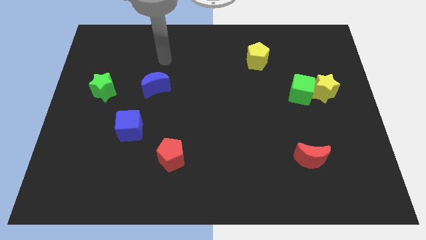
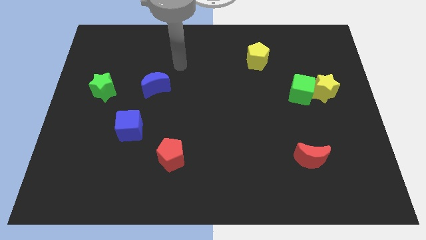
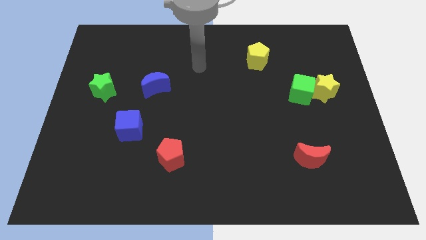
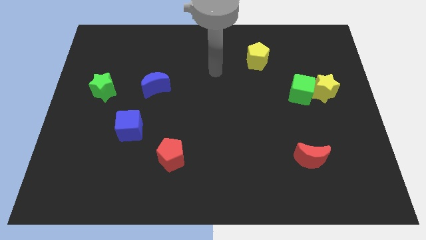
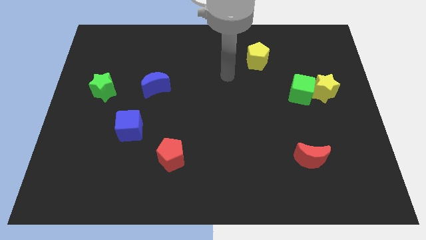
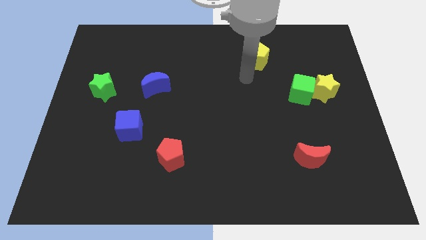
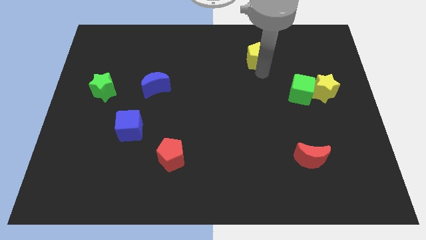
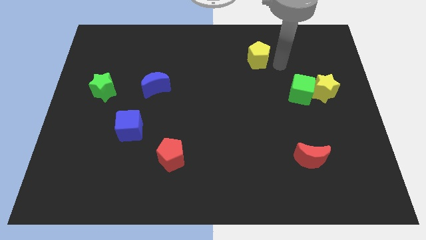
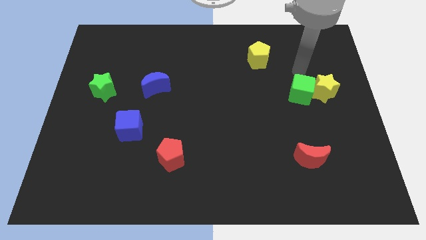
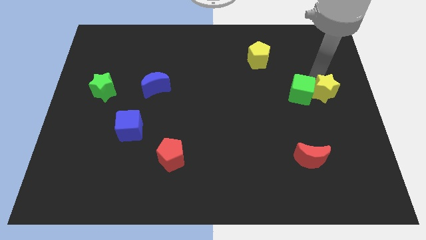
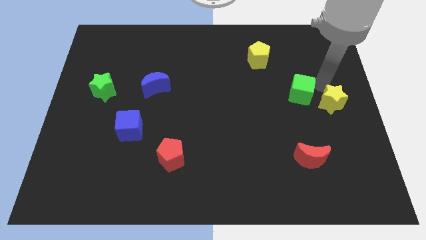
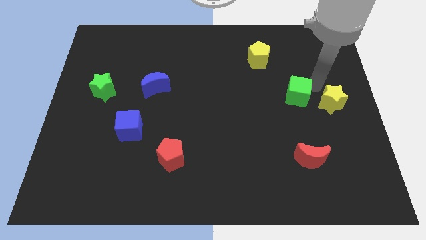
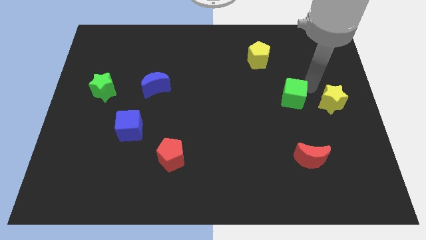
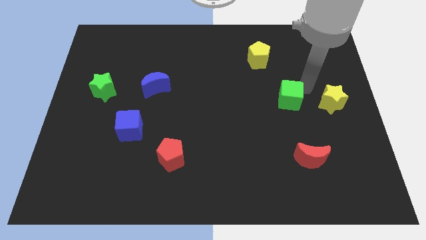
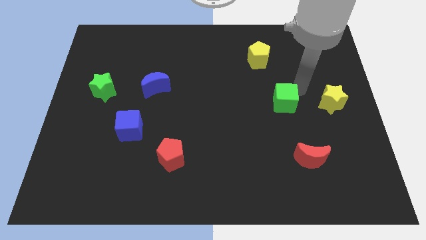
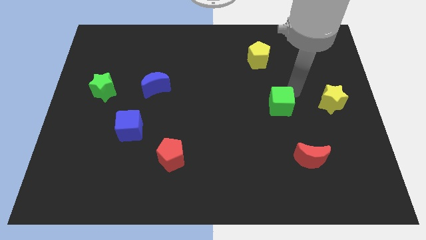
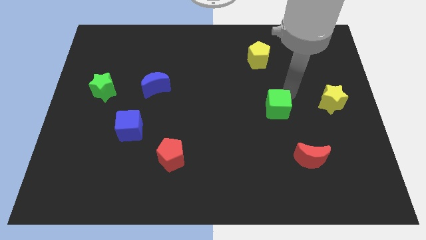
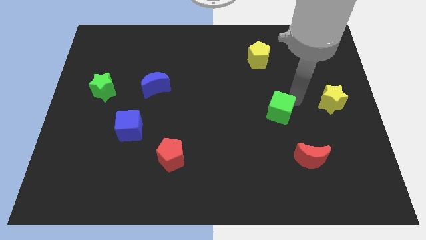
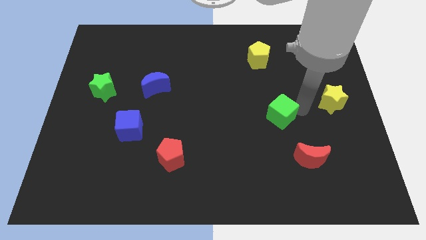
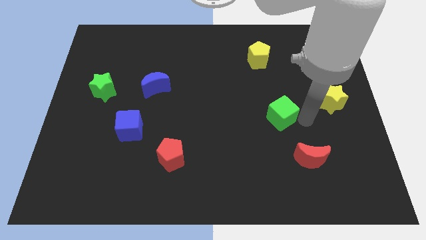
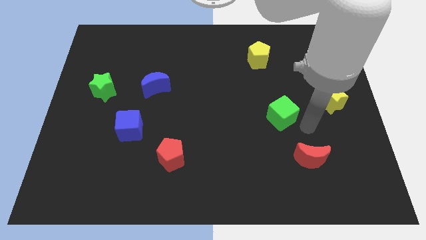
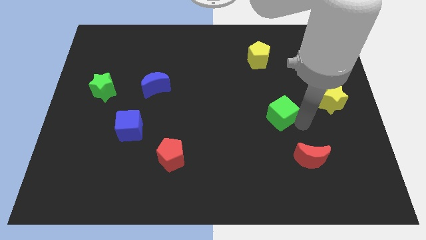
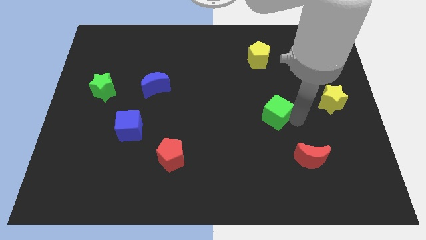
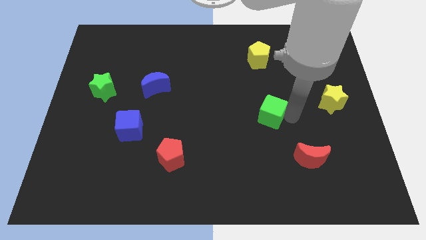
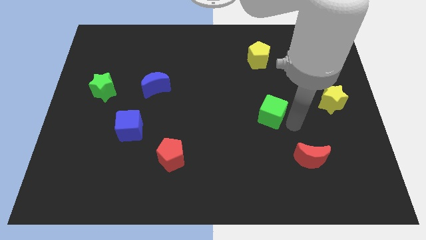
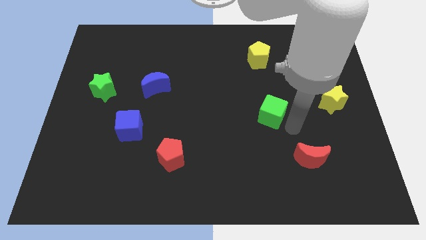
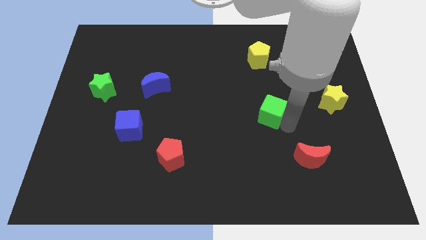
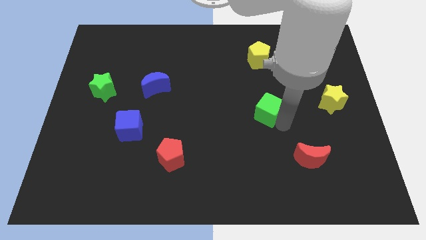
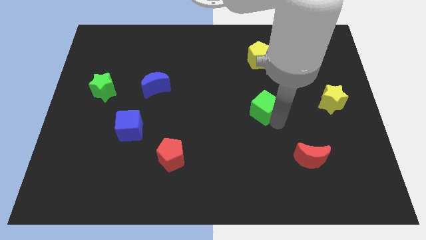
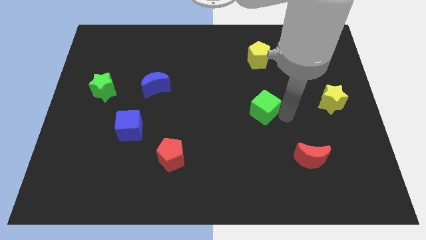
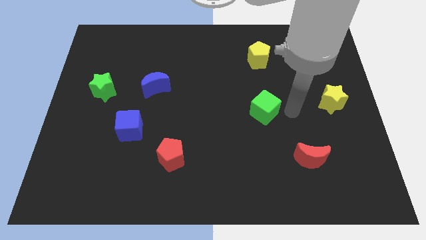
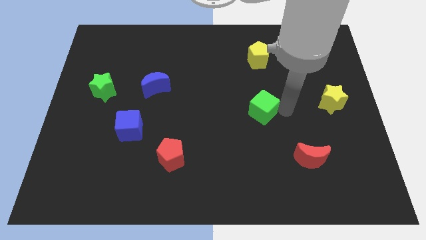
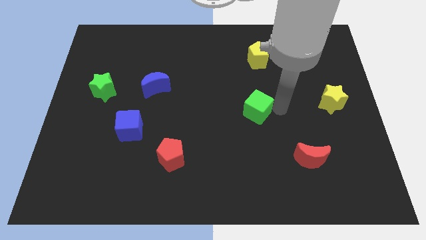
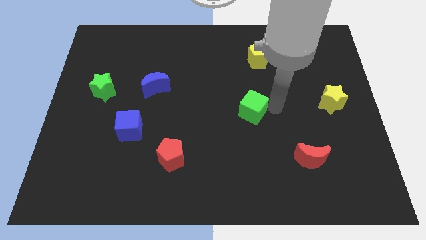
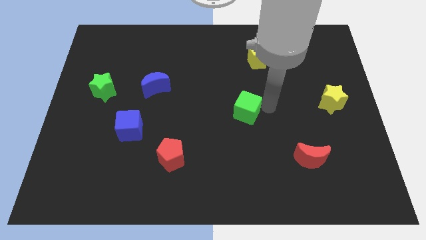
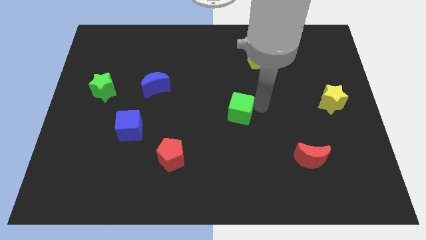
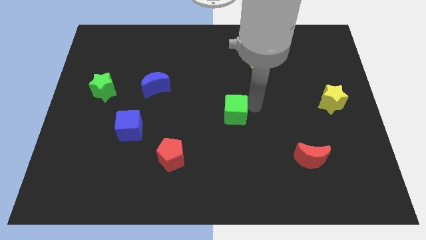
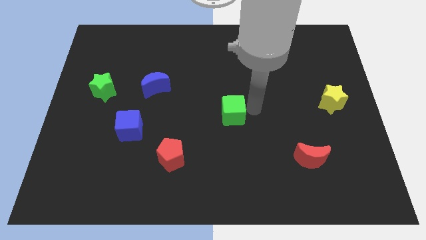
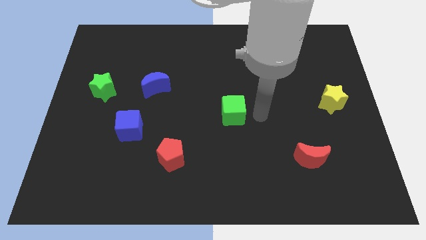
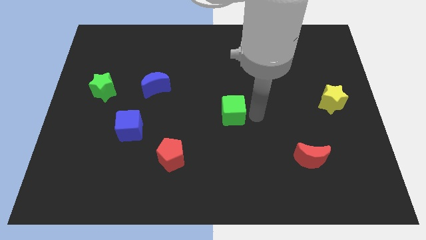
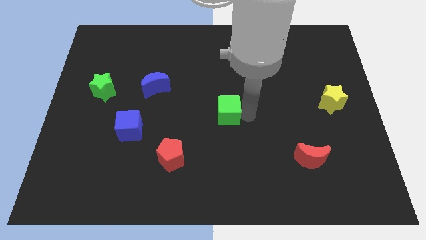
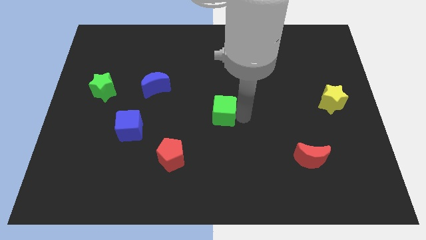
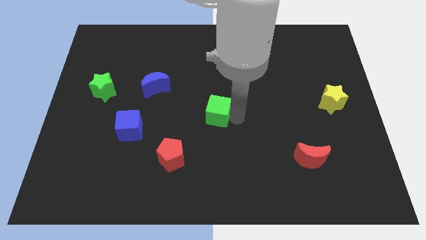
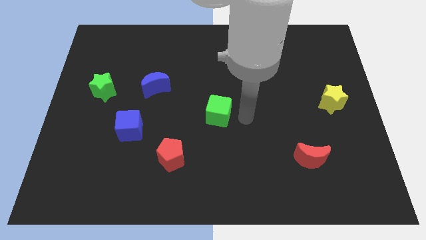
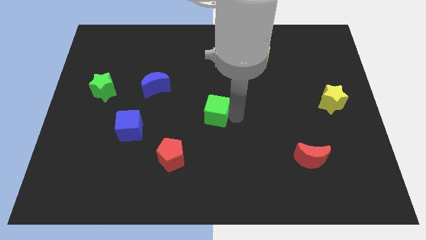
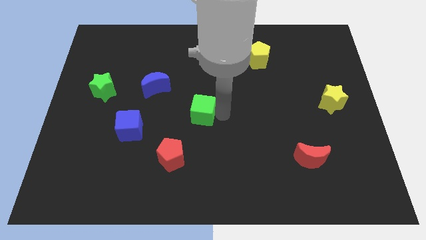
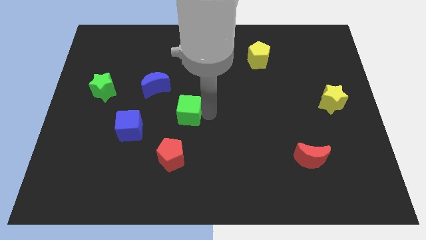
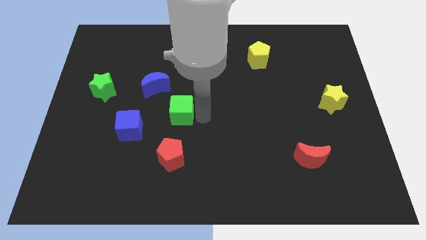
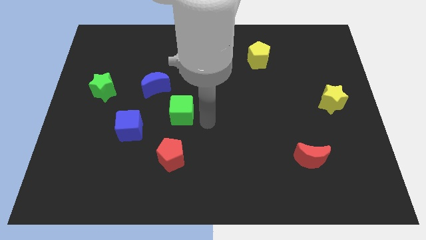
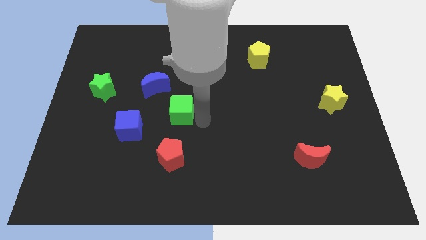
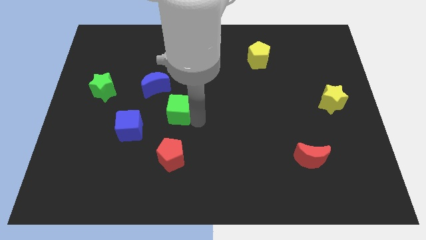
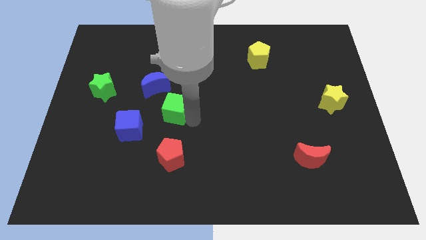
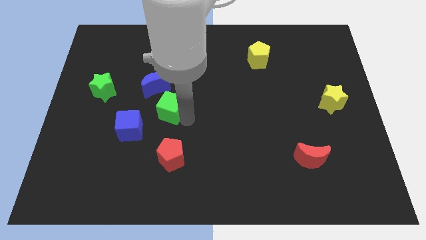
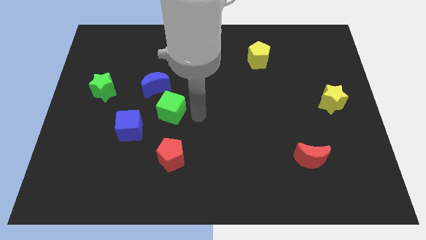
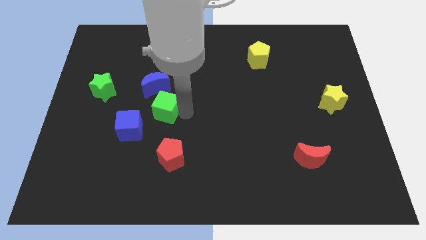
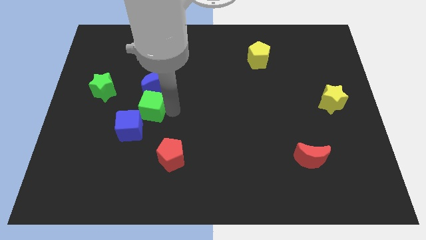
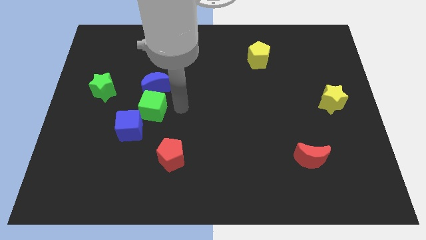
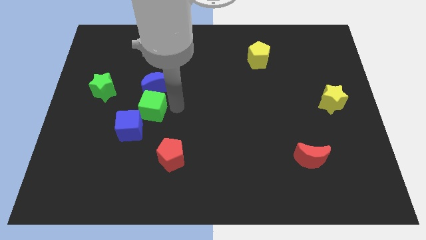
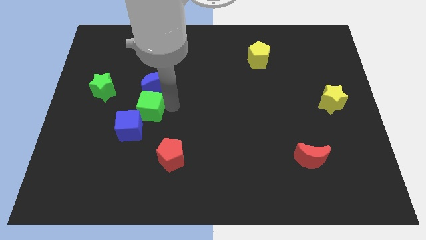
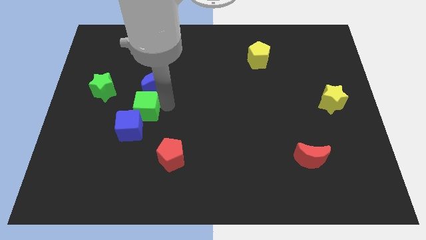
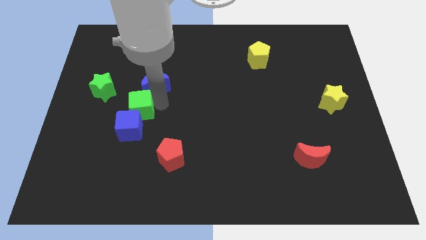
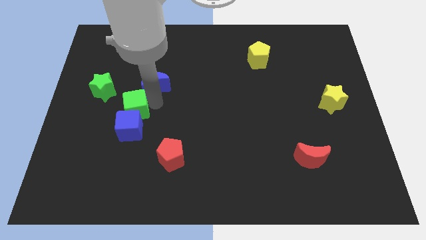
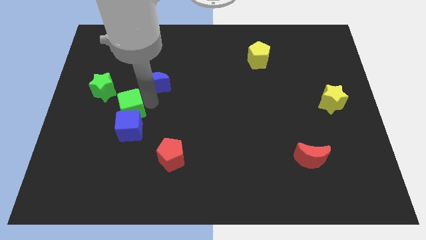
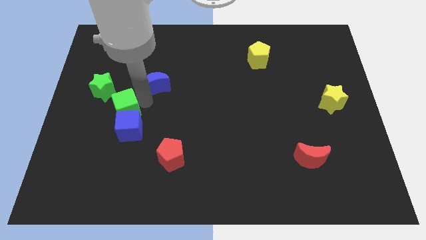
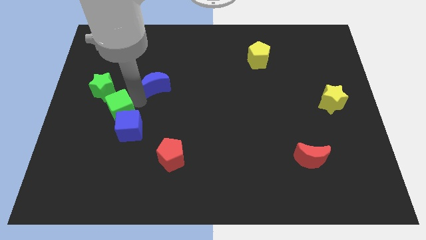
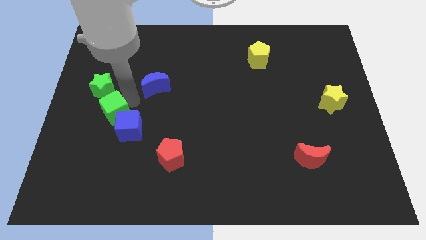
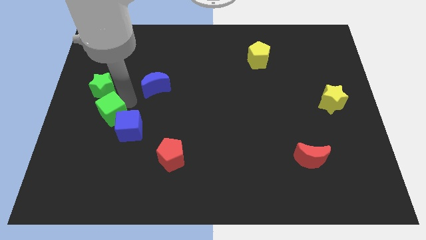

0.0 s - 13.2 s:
slide the green cube to the left of the blue cube
